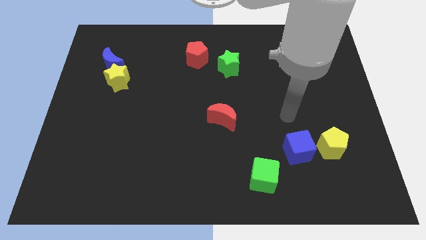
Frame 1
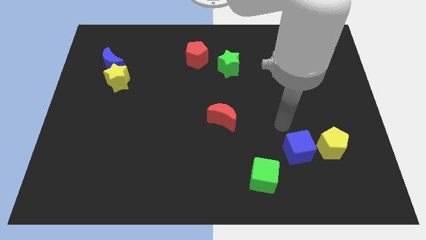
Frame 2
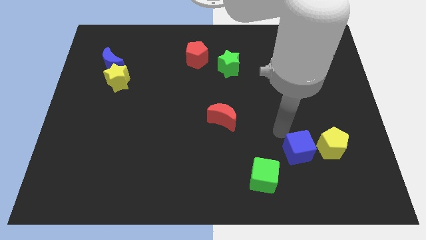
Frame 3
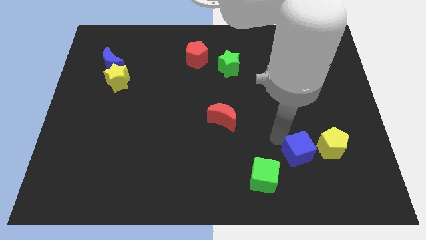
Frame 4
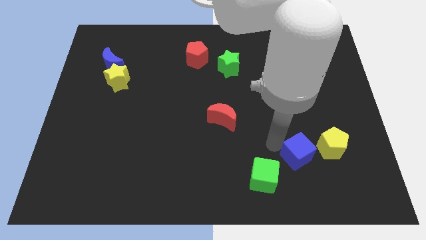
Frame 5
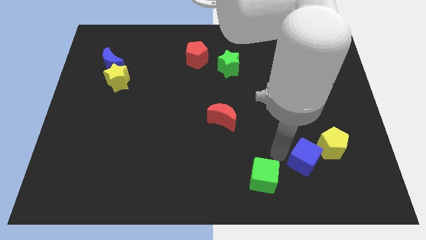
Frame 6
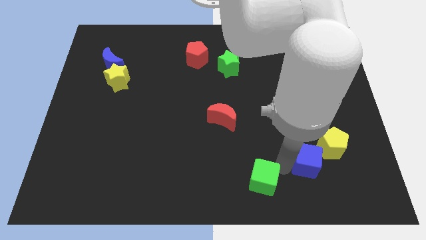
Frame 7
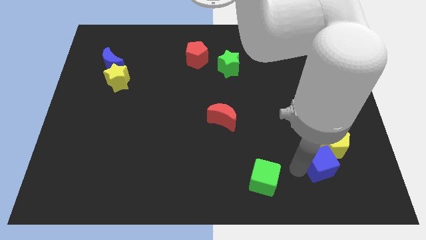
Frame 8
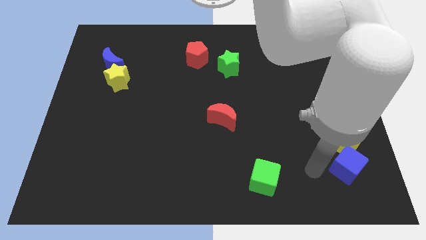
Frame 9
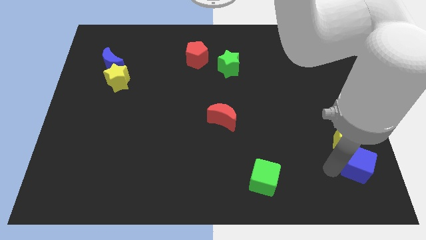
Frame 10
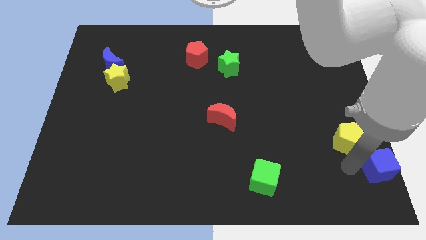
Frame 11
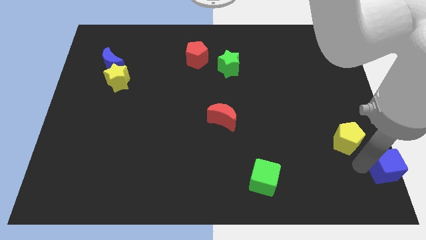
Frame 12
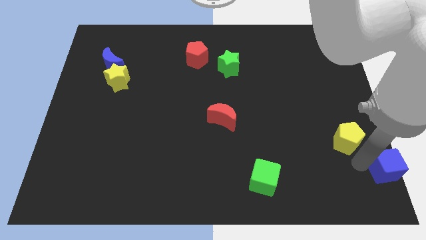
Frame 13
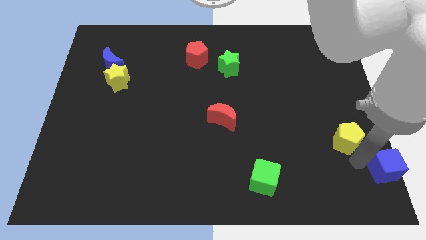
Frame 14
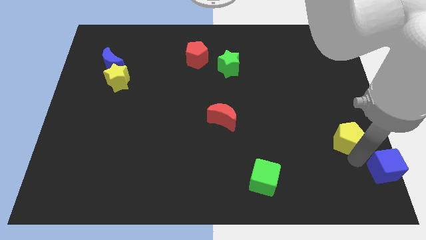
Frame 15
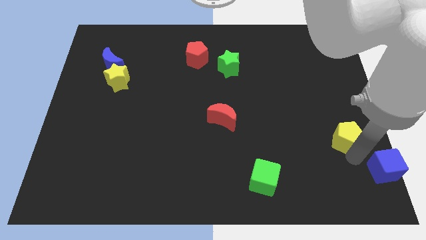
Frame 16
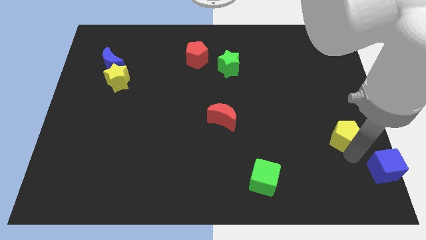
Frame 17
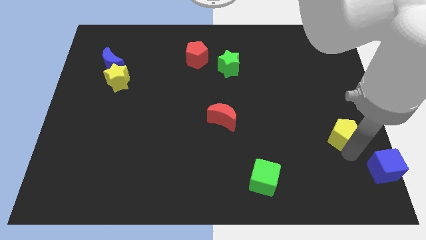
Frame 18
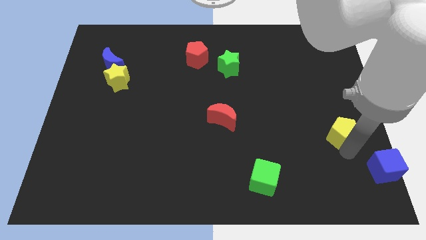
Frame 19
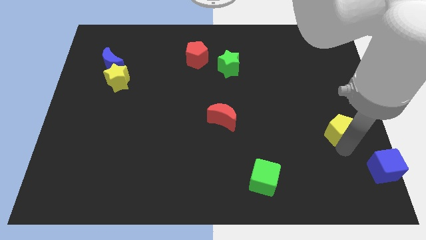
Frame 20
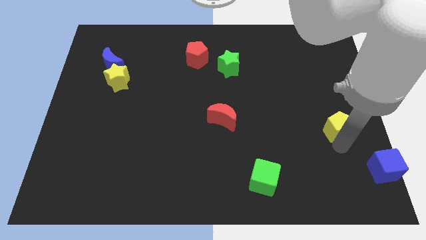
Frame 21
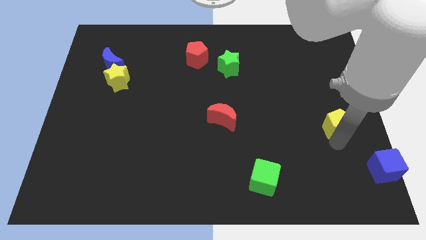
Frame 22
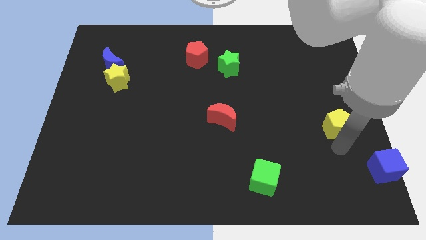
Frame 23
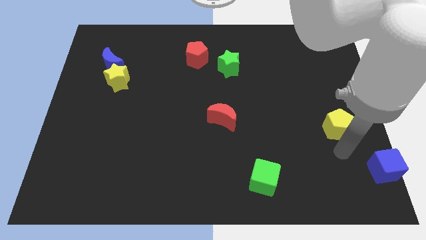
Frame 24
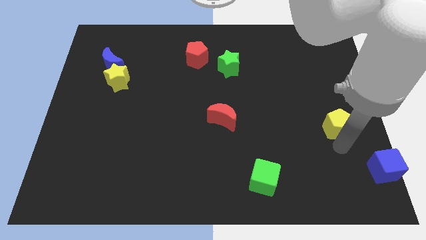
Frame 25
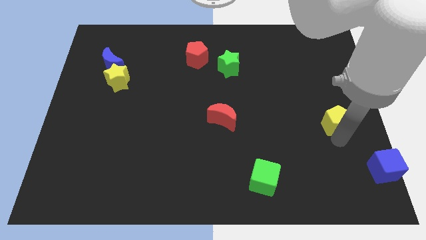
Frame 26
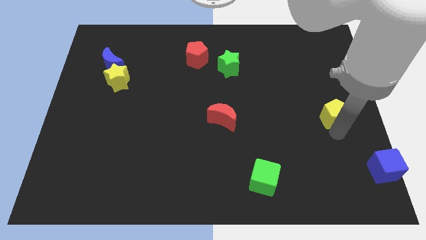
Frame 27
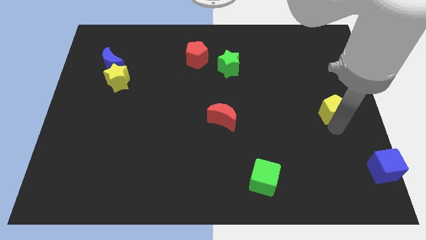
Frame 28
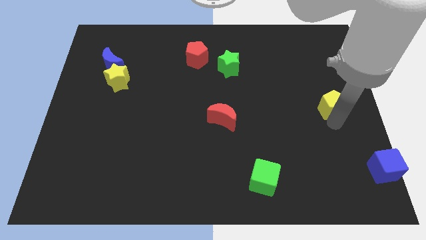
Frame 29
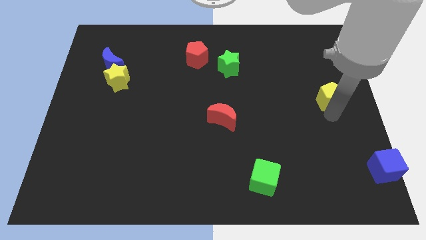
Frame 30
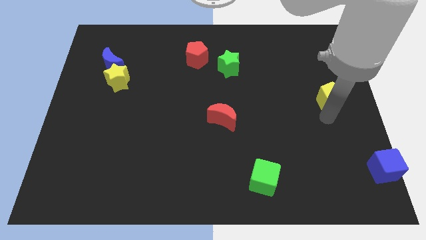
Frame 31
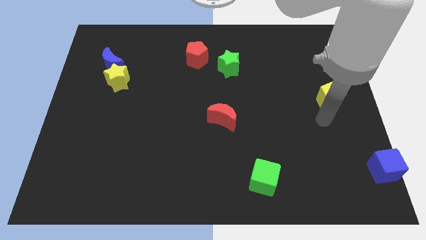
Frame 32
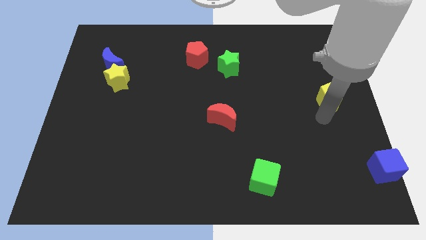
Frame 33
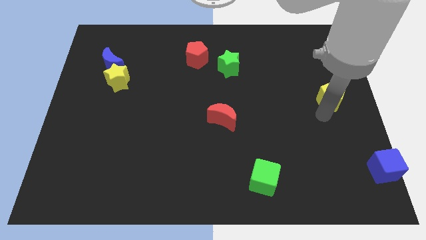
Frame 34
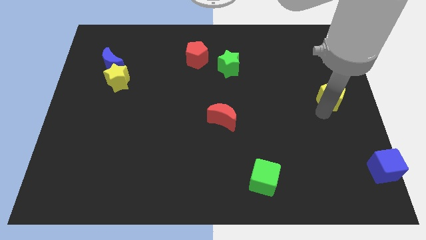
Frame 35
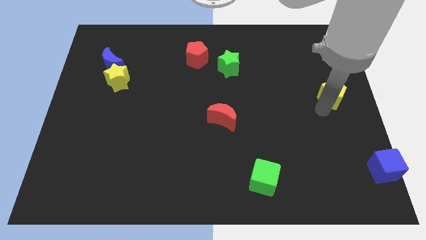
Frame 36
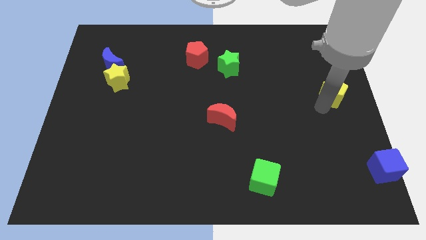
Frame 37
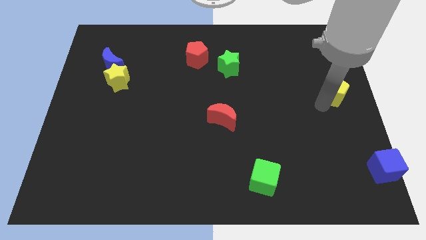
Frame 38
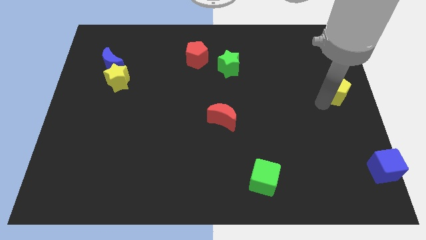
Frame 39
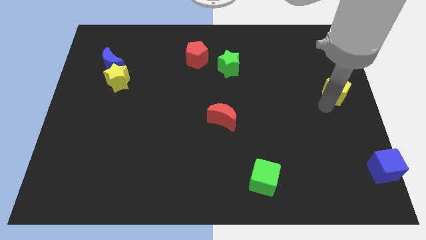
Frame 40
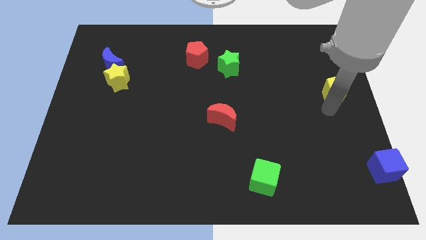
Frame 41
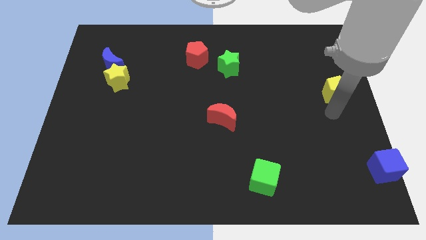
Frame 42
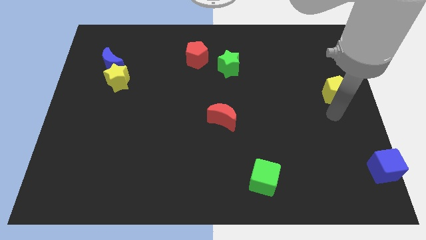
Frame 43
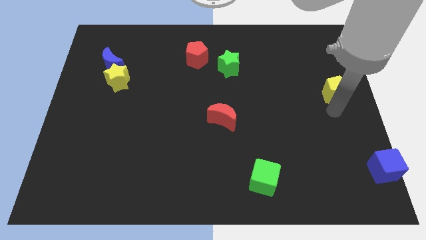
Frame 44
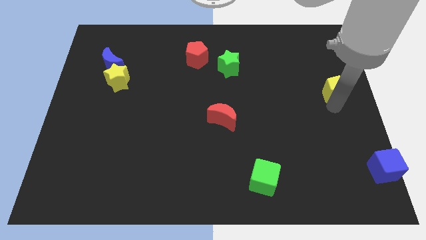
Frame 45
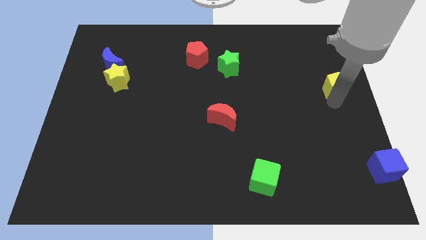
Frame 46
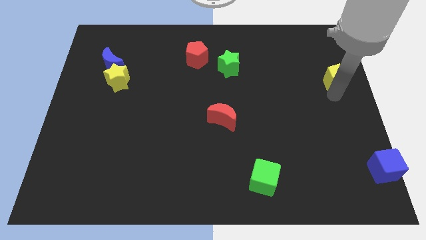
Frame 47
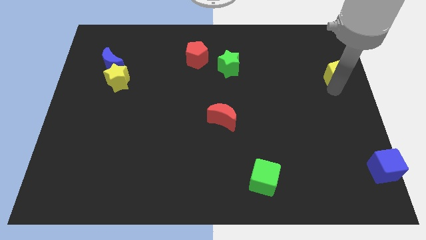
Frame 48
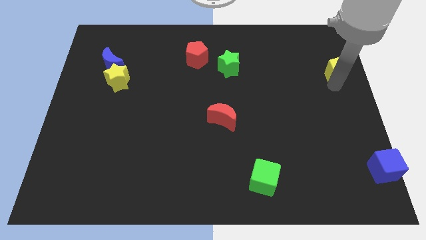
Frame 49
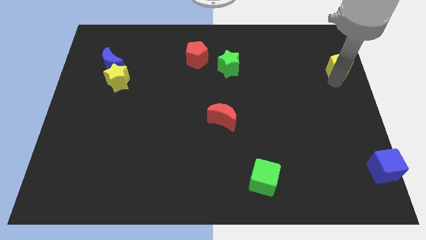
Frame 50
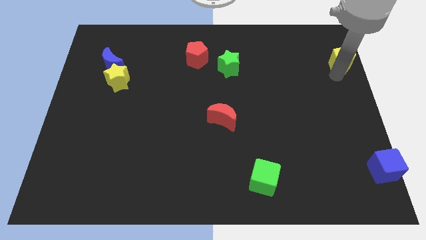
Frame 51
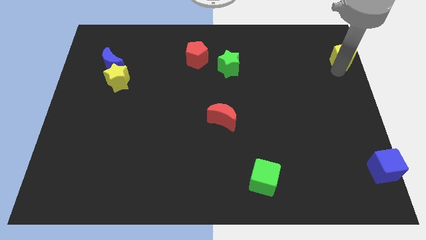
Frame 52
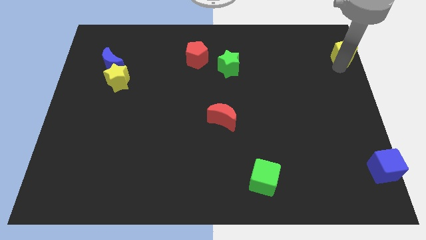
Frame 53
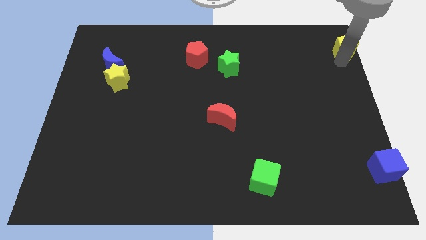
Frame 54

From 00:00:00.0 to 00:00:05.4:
push the yellow pentagon to the top right corner
